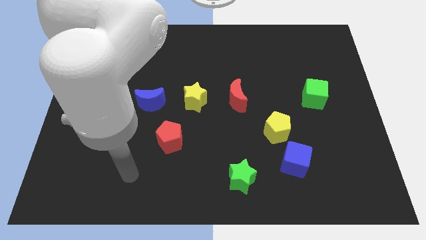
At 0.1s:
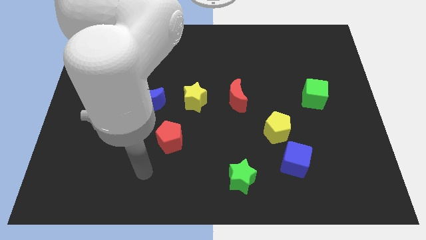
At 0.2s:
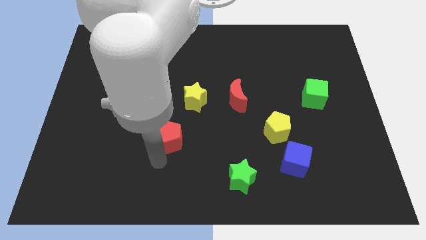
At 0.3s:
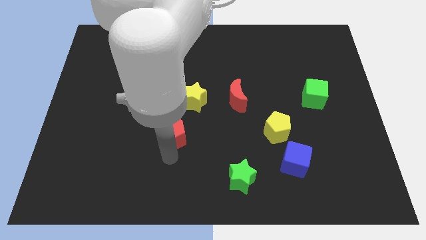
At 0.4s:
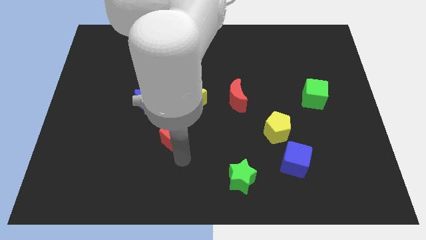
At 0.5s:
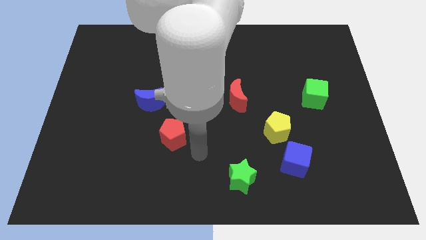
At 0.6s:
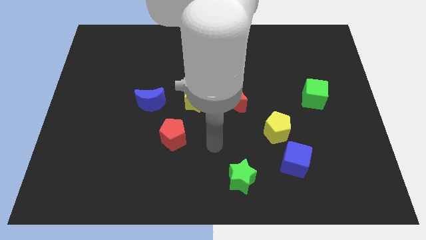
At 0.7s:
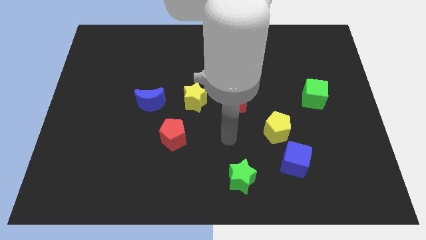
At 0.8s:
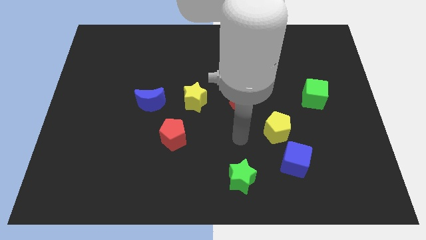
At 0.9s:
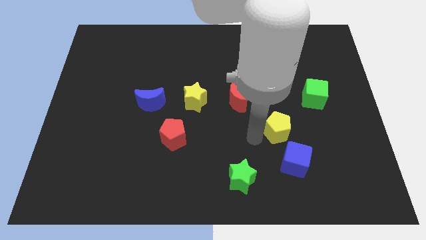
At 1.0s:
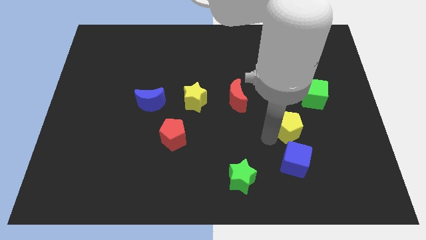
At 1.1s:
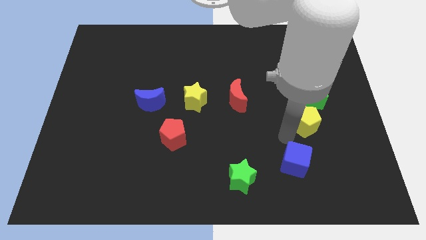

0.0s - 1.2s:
pull the blue cube apart from the yellow pentagon

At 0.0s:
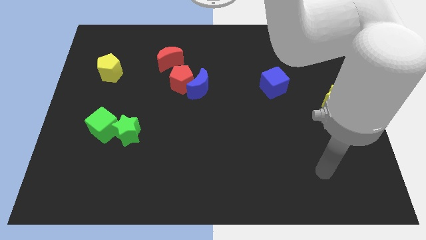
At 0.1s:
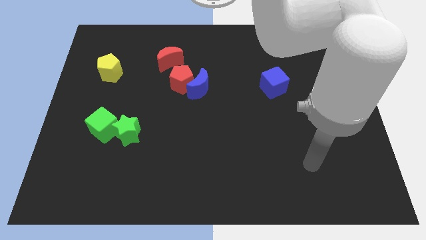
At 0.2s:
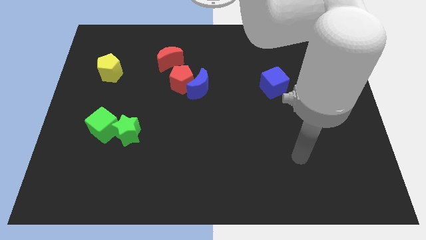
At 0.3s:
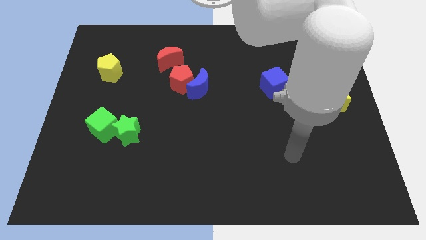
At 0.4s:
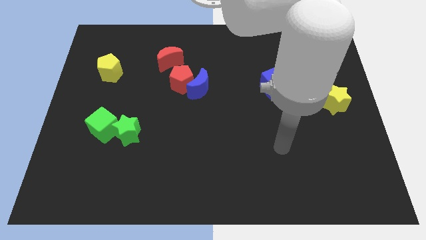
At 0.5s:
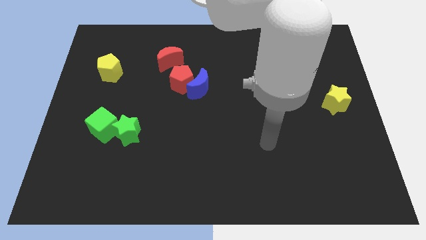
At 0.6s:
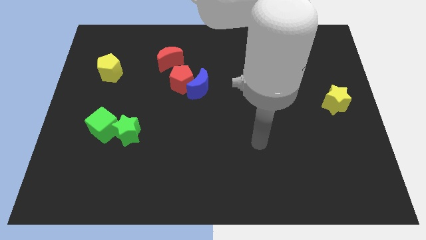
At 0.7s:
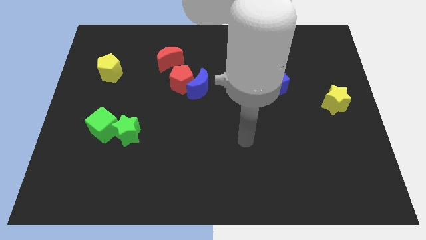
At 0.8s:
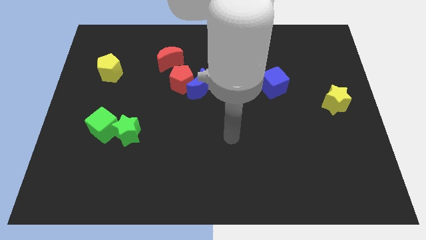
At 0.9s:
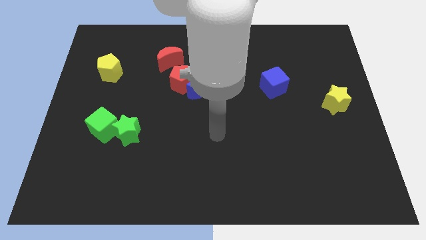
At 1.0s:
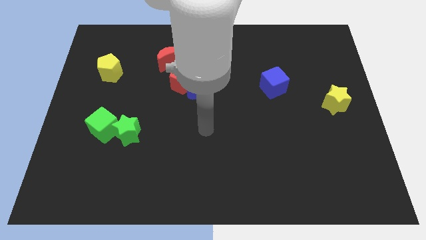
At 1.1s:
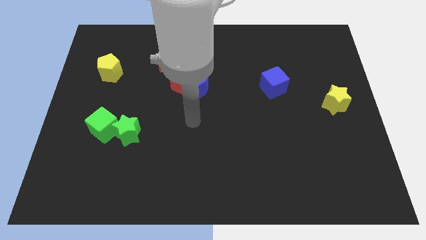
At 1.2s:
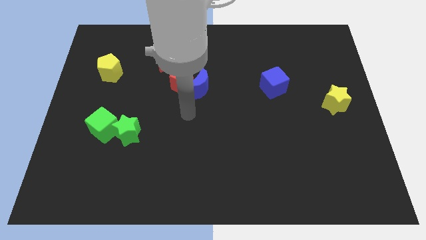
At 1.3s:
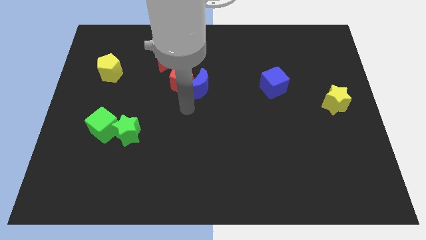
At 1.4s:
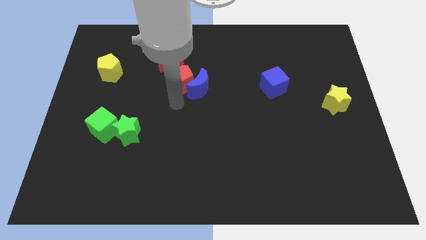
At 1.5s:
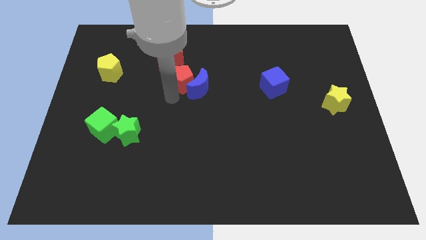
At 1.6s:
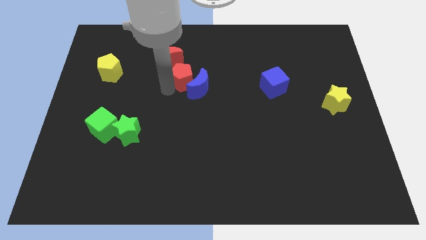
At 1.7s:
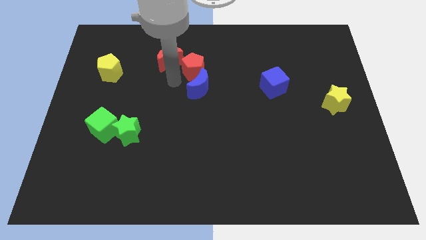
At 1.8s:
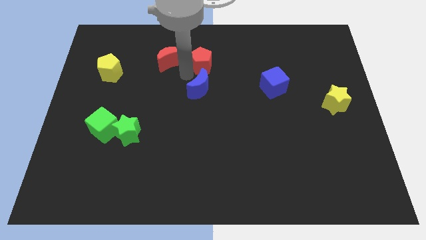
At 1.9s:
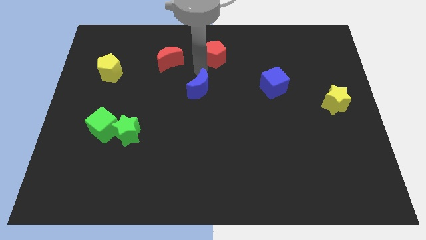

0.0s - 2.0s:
move the blue moon away from the red pentagon

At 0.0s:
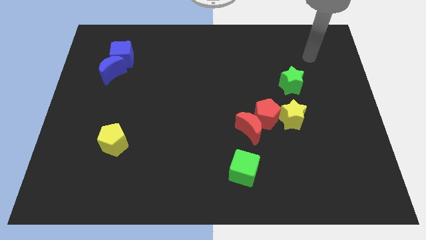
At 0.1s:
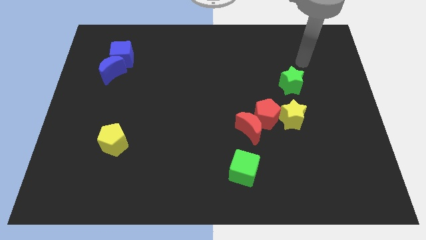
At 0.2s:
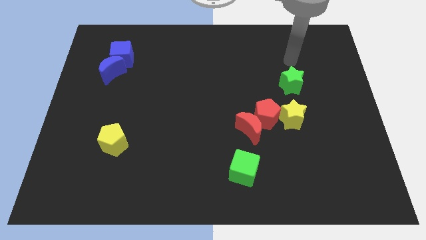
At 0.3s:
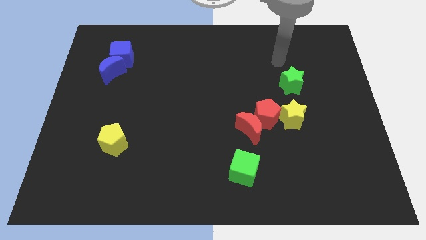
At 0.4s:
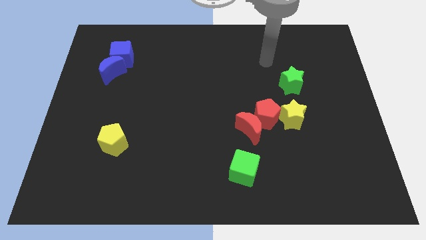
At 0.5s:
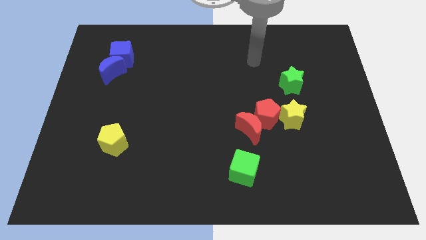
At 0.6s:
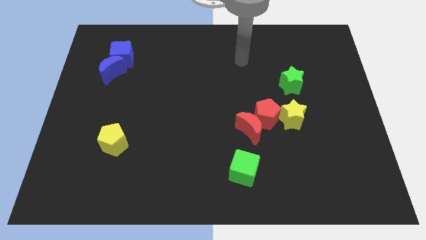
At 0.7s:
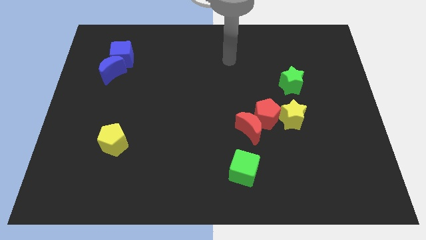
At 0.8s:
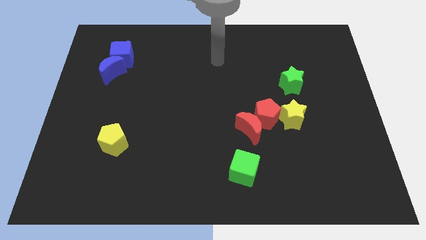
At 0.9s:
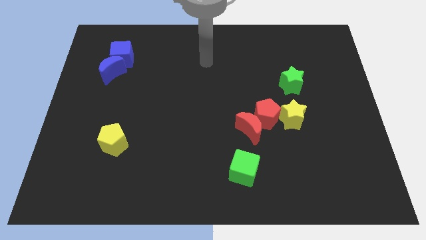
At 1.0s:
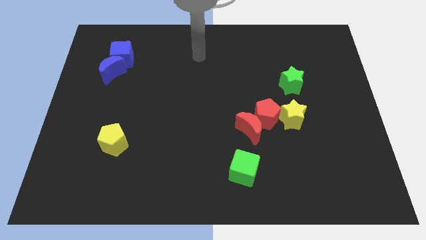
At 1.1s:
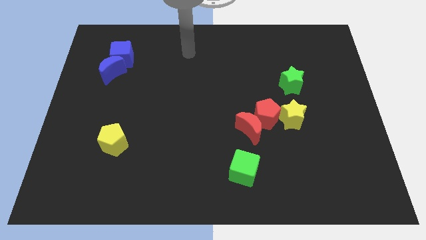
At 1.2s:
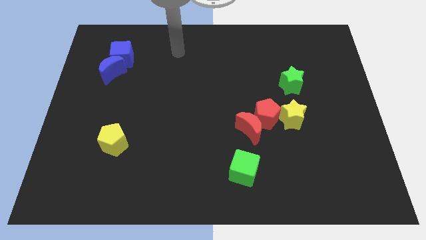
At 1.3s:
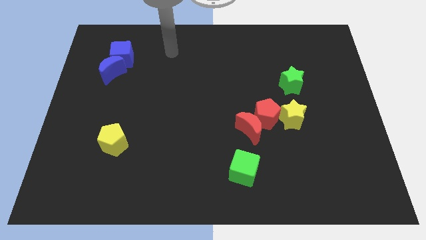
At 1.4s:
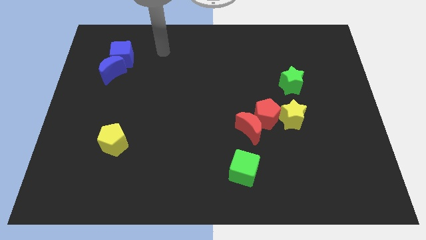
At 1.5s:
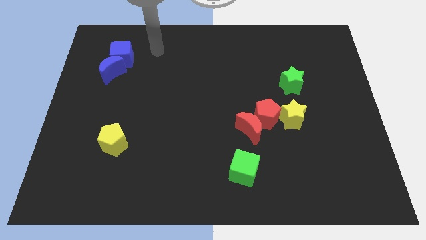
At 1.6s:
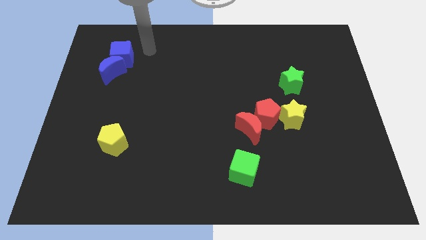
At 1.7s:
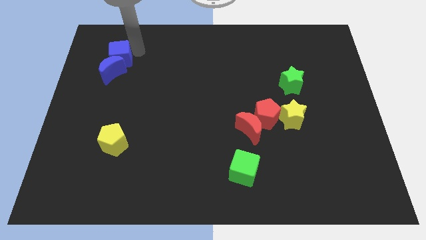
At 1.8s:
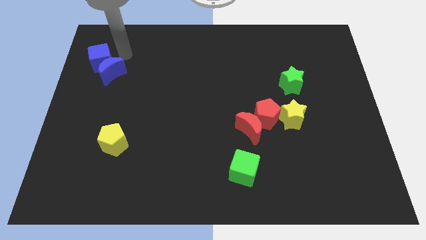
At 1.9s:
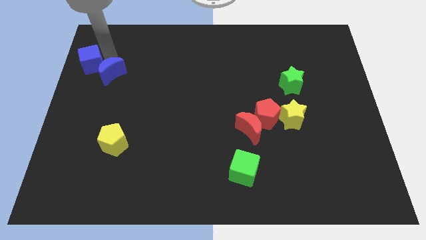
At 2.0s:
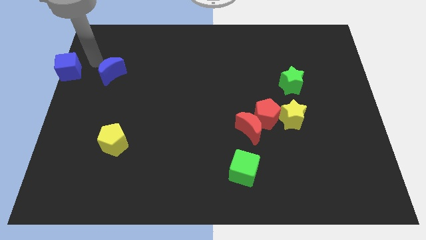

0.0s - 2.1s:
move the blue moon away from the blue cube

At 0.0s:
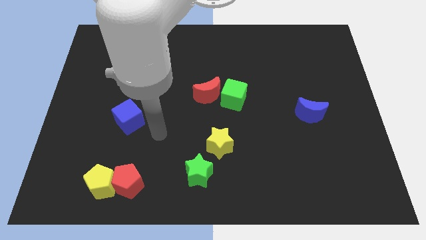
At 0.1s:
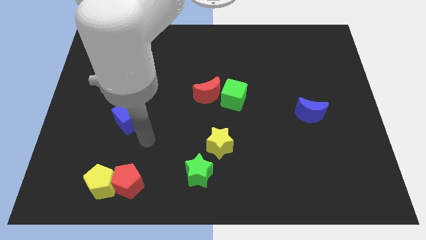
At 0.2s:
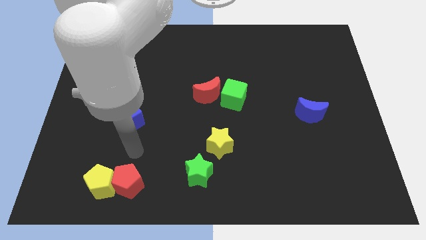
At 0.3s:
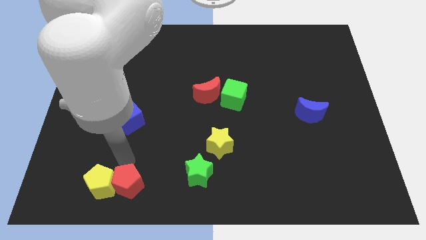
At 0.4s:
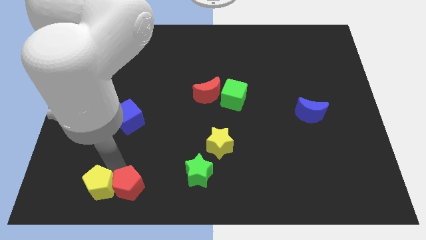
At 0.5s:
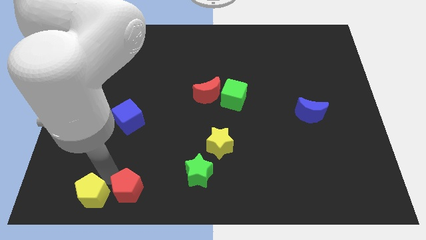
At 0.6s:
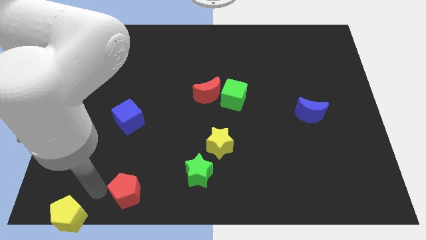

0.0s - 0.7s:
move the red pentagon away from the yellow pentagon

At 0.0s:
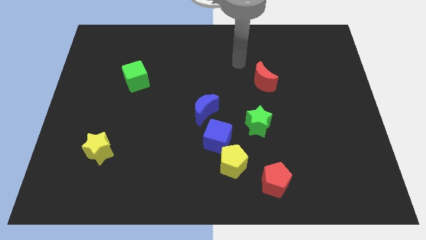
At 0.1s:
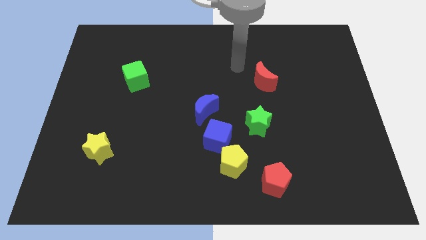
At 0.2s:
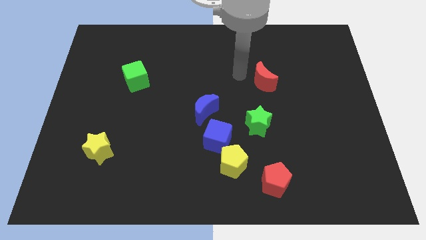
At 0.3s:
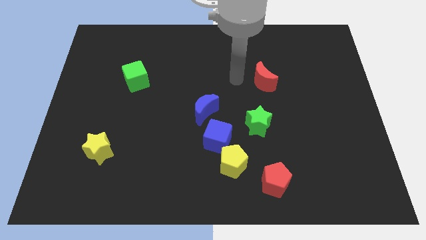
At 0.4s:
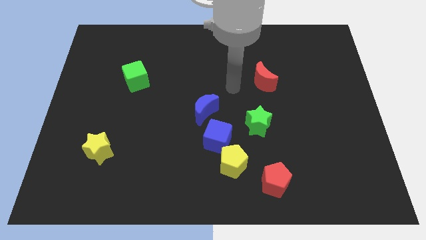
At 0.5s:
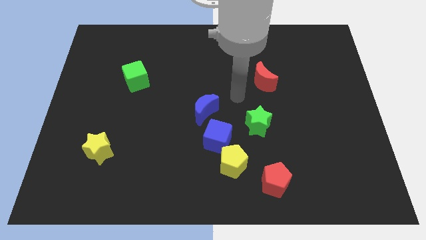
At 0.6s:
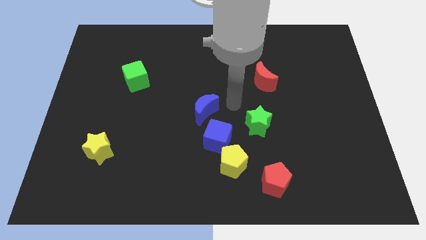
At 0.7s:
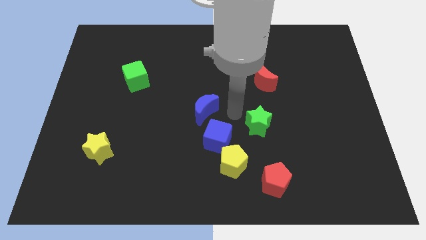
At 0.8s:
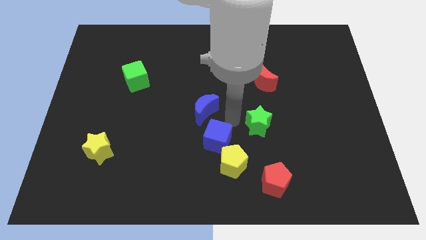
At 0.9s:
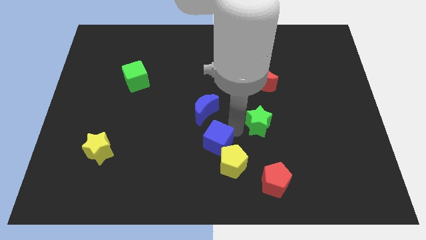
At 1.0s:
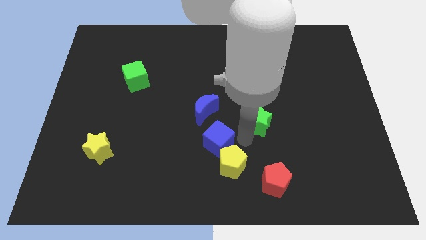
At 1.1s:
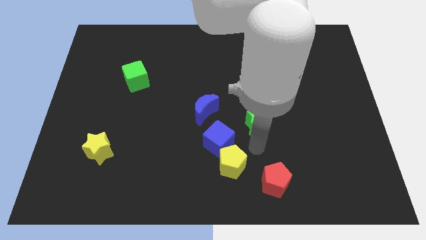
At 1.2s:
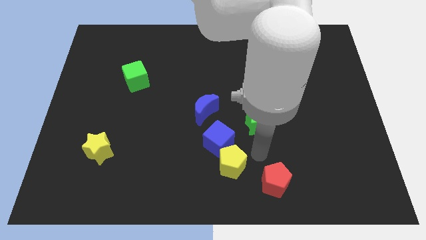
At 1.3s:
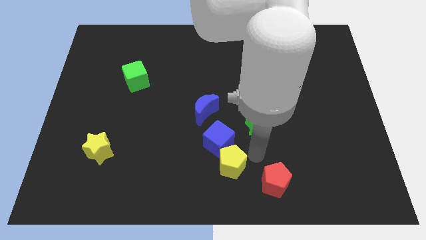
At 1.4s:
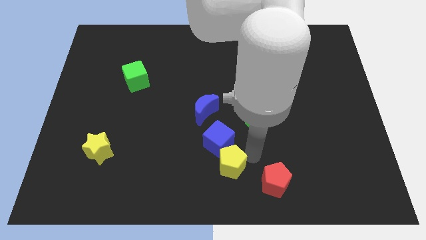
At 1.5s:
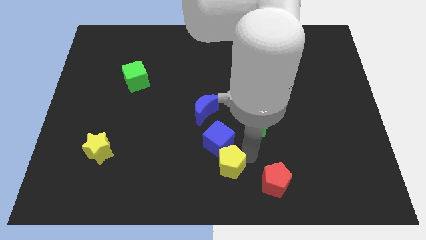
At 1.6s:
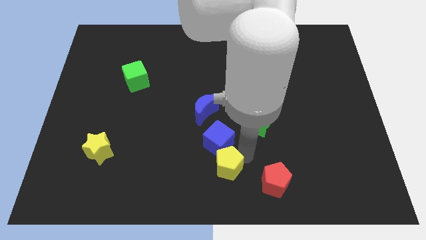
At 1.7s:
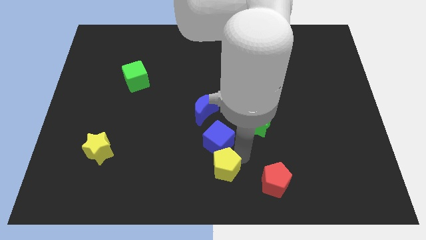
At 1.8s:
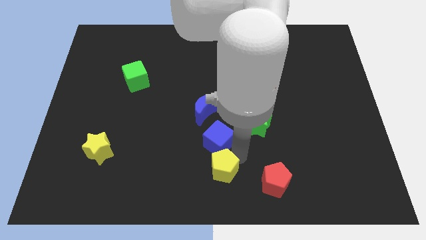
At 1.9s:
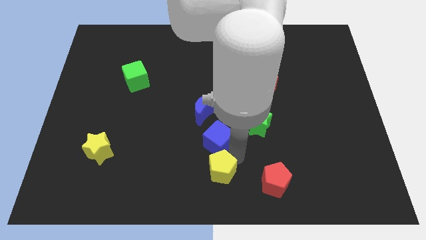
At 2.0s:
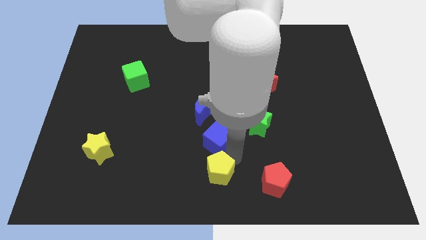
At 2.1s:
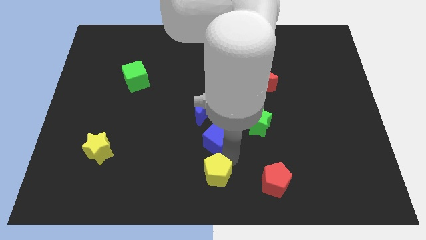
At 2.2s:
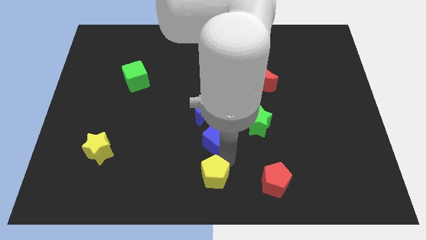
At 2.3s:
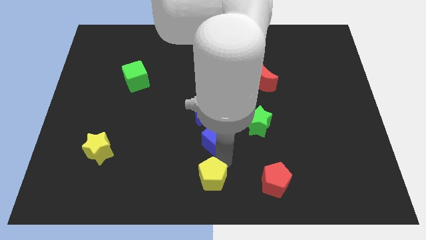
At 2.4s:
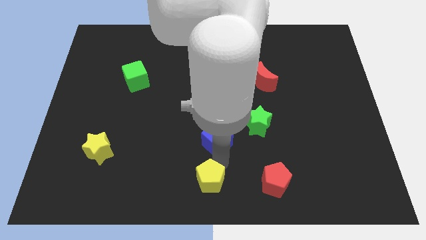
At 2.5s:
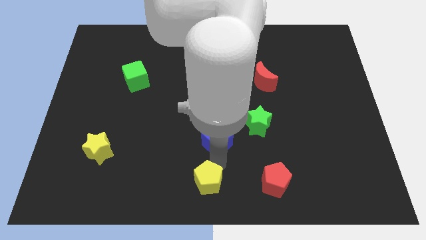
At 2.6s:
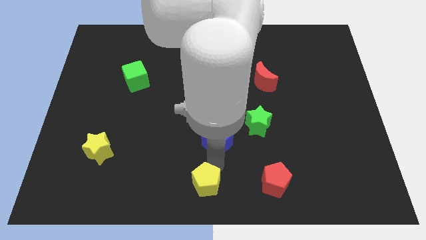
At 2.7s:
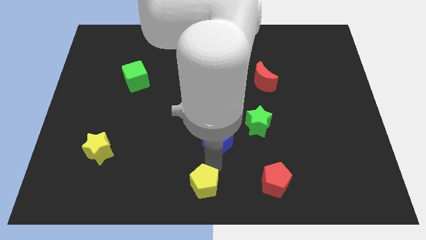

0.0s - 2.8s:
separate the yellow pentagon from the blue cube and red pentagon

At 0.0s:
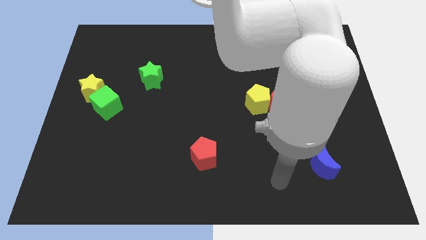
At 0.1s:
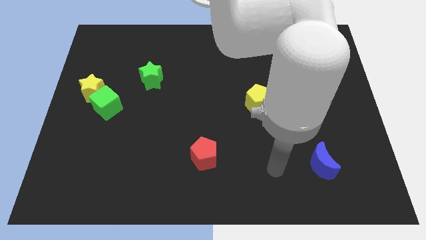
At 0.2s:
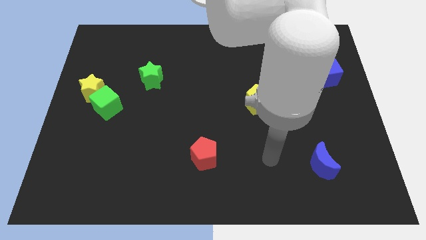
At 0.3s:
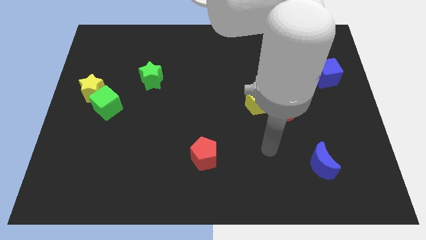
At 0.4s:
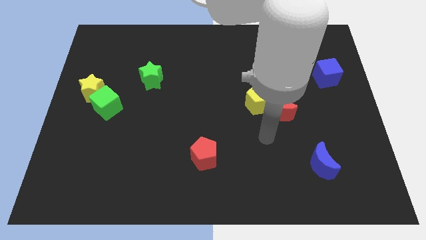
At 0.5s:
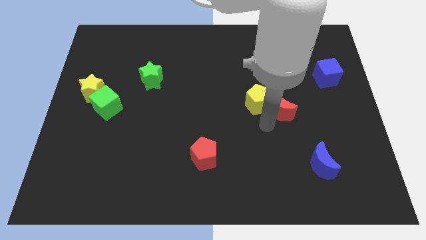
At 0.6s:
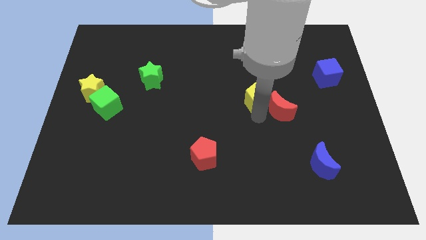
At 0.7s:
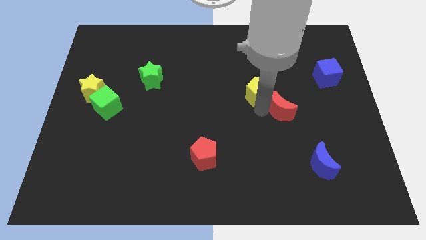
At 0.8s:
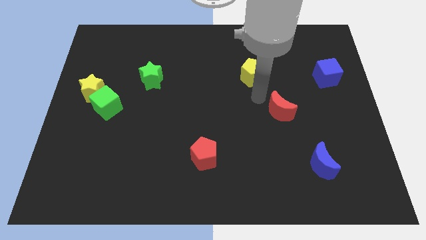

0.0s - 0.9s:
pull the red moon apart from the yellow pentagon
